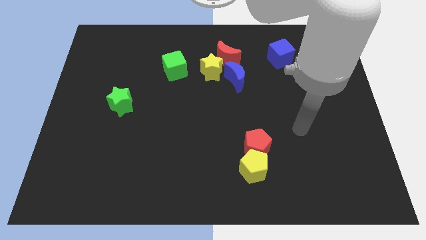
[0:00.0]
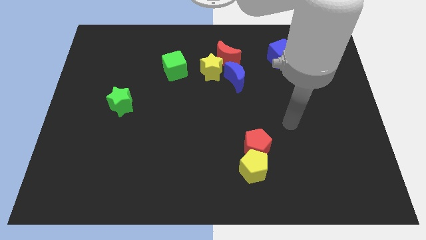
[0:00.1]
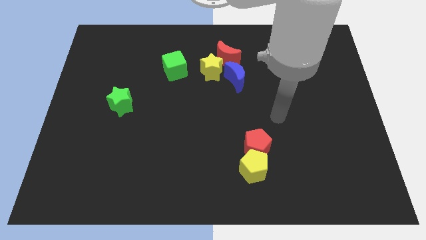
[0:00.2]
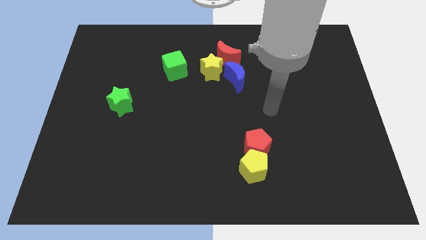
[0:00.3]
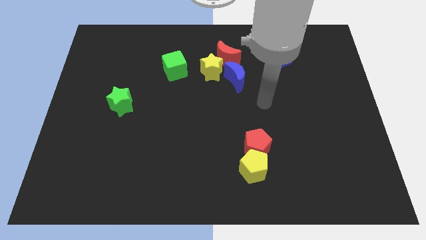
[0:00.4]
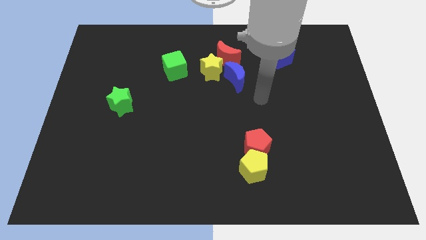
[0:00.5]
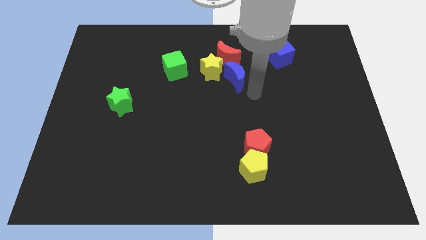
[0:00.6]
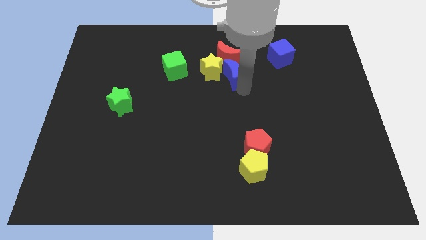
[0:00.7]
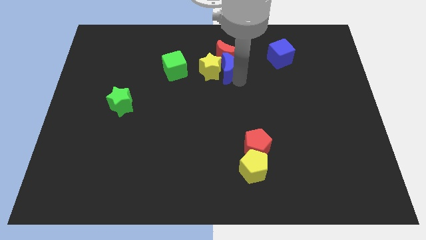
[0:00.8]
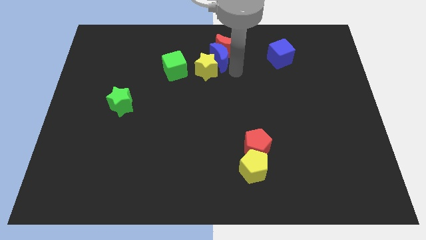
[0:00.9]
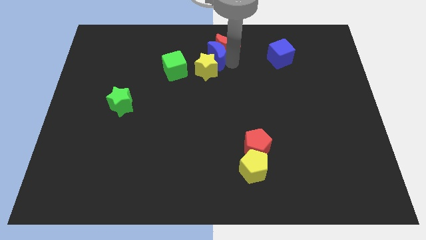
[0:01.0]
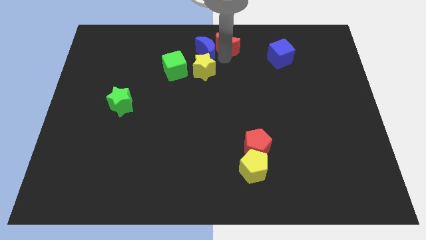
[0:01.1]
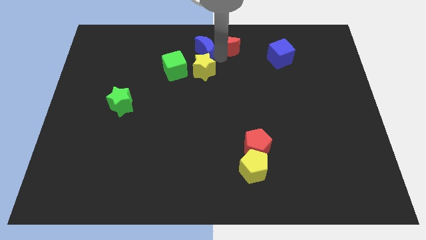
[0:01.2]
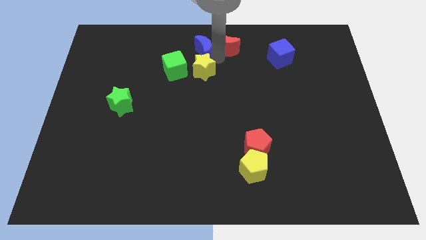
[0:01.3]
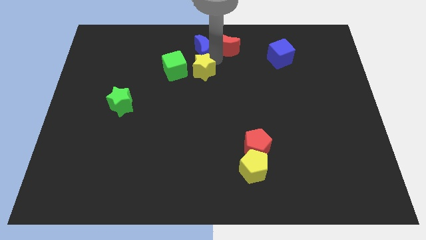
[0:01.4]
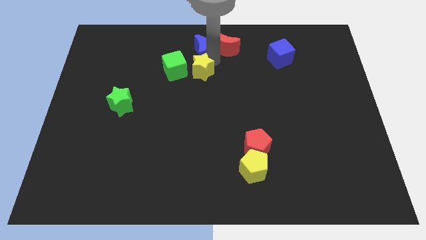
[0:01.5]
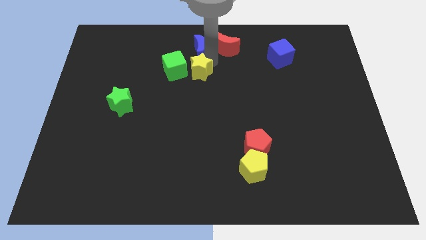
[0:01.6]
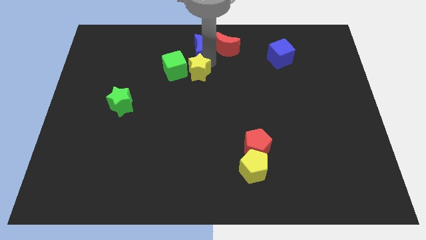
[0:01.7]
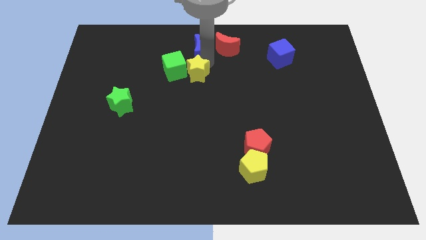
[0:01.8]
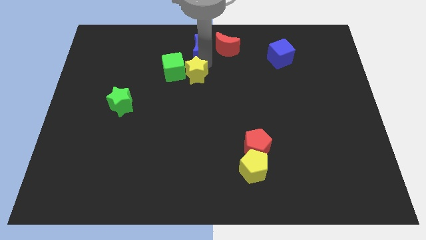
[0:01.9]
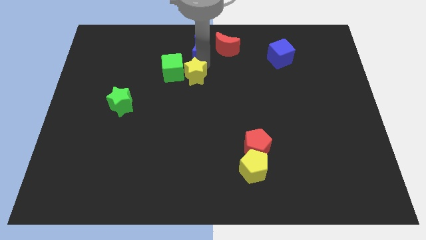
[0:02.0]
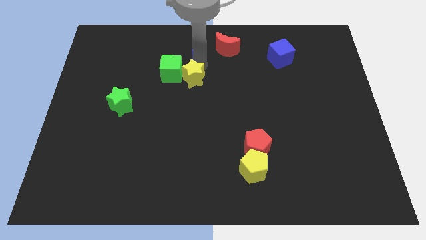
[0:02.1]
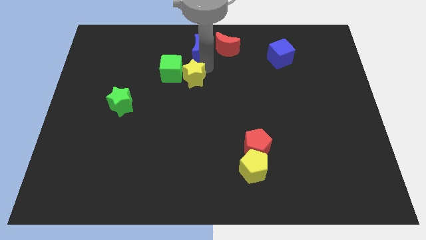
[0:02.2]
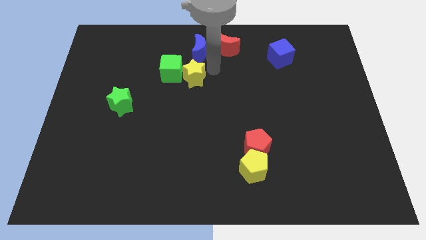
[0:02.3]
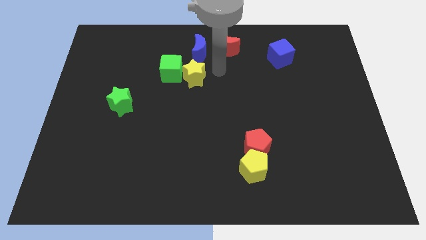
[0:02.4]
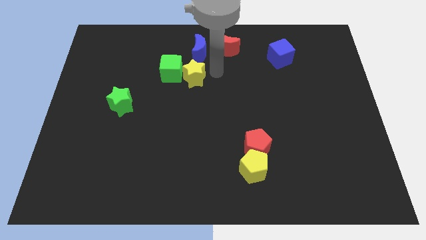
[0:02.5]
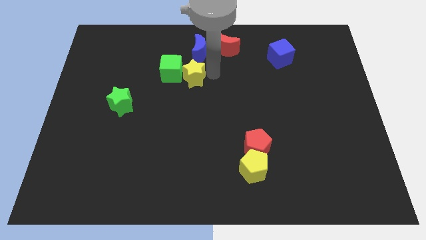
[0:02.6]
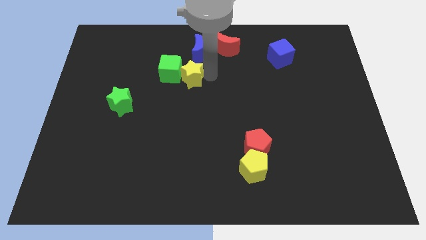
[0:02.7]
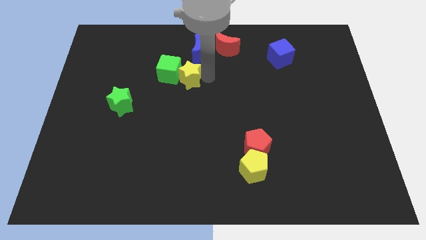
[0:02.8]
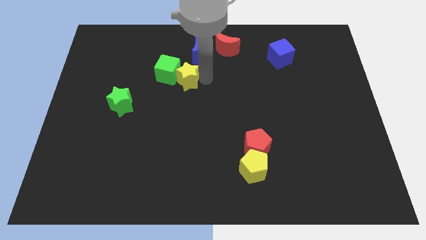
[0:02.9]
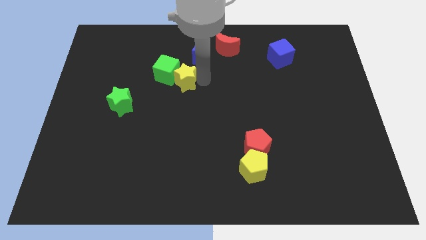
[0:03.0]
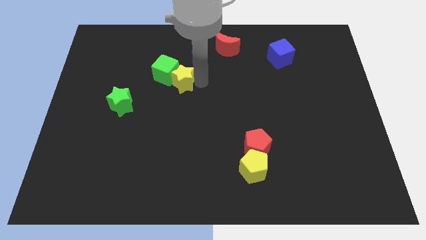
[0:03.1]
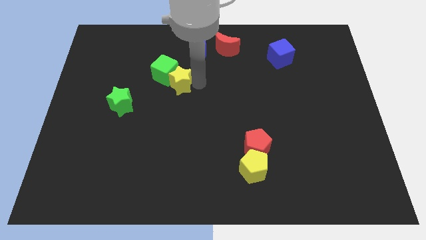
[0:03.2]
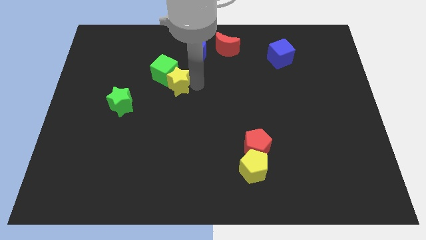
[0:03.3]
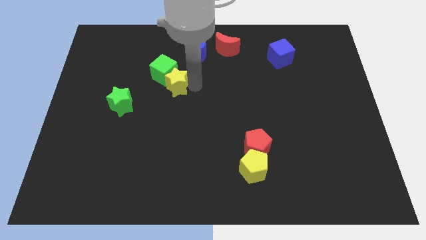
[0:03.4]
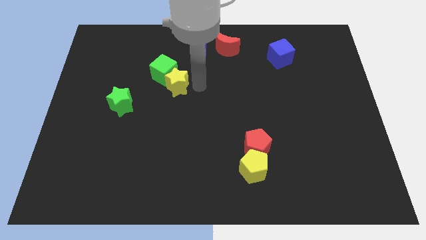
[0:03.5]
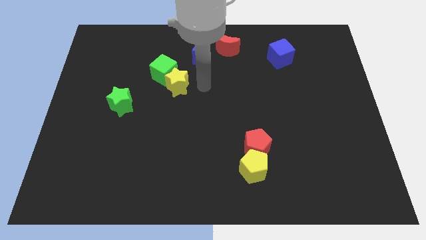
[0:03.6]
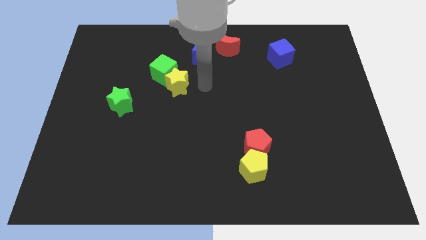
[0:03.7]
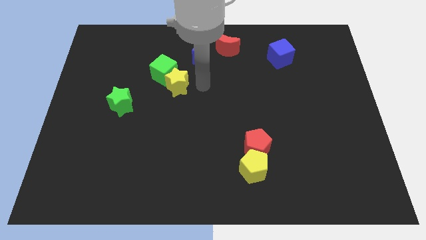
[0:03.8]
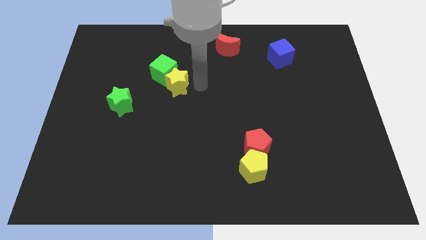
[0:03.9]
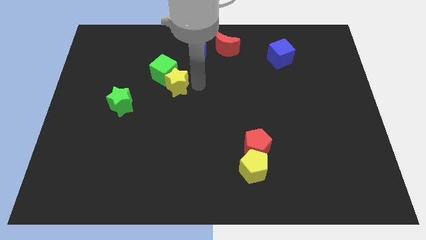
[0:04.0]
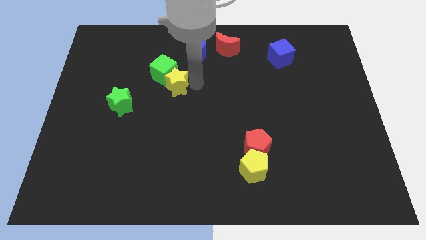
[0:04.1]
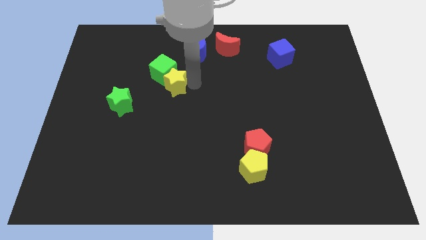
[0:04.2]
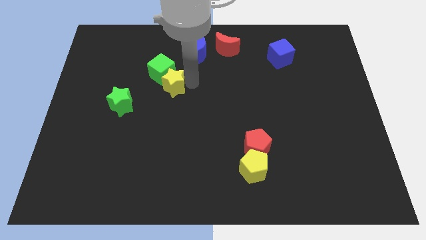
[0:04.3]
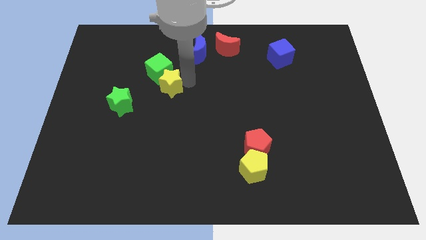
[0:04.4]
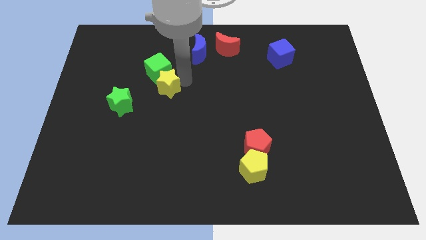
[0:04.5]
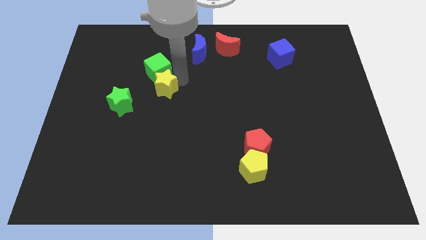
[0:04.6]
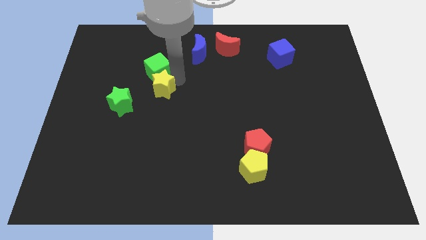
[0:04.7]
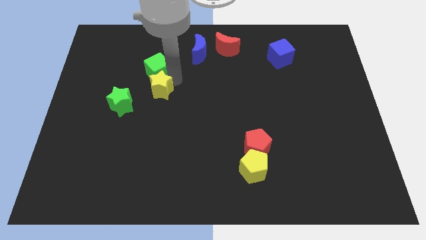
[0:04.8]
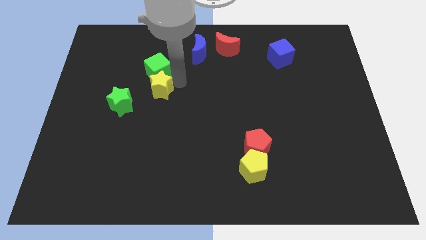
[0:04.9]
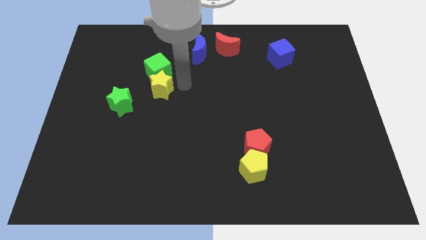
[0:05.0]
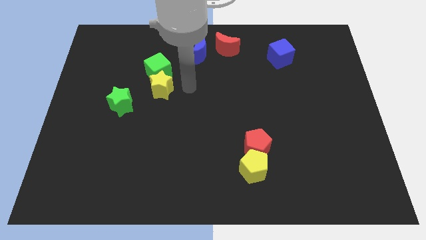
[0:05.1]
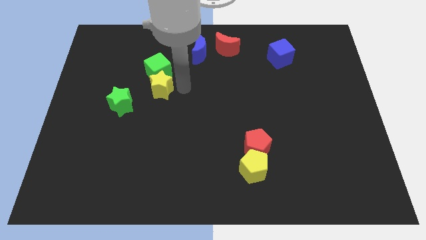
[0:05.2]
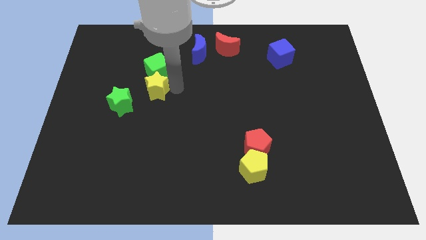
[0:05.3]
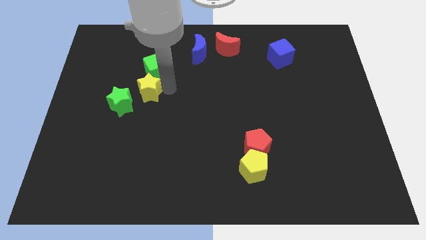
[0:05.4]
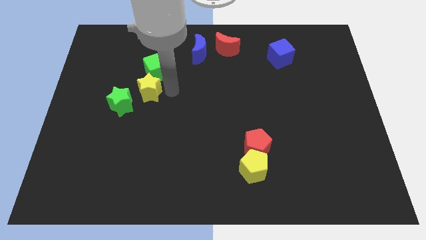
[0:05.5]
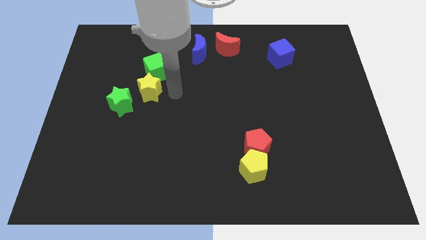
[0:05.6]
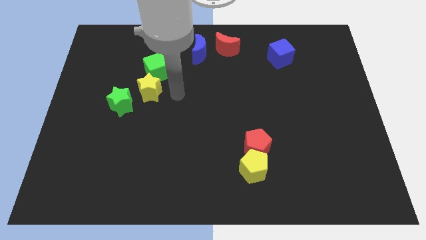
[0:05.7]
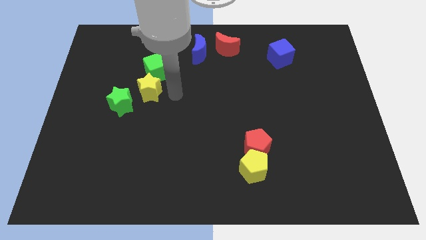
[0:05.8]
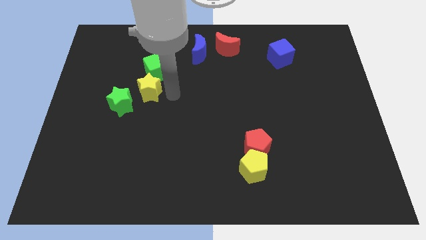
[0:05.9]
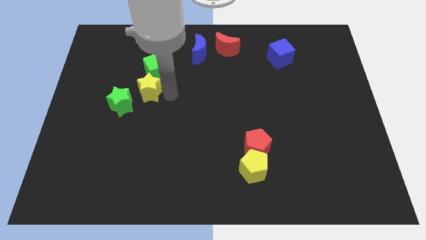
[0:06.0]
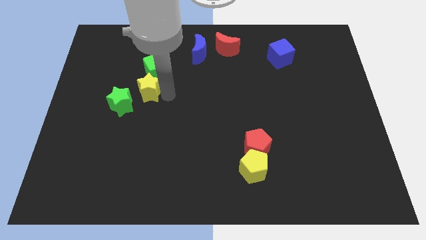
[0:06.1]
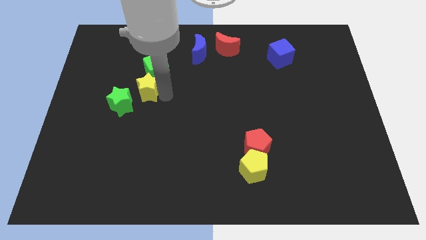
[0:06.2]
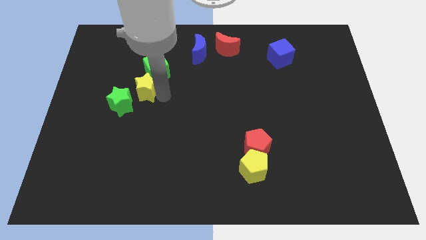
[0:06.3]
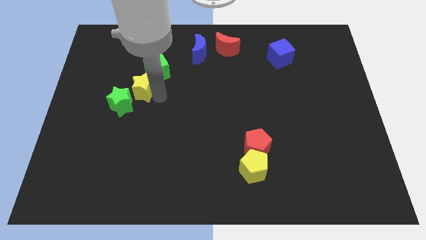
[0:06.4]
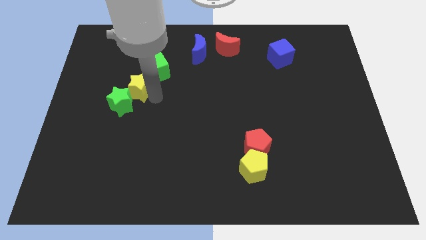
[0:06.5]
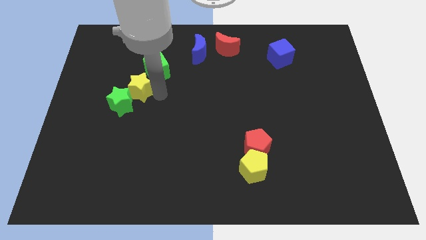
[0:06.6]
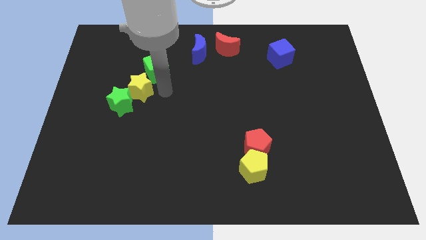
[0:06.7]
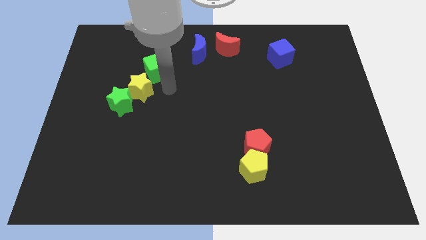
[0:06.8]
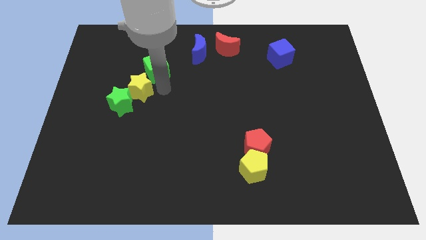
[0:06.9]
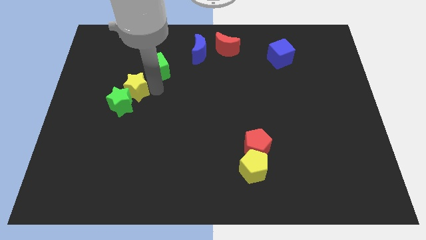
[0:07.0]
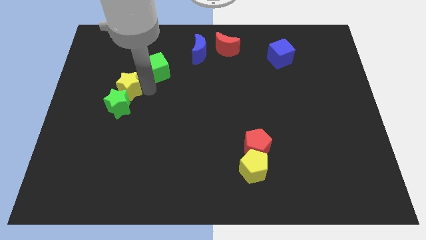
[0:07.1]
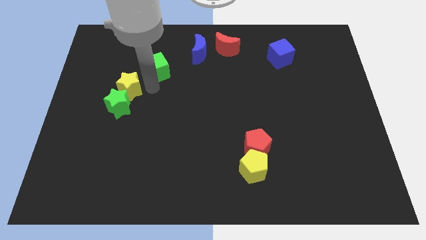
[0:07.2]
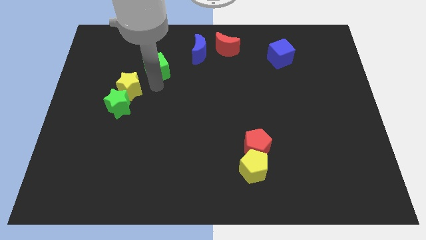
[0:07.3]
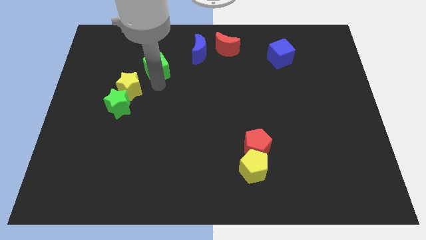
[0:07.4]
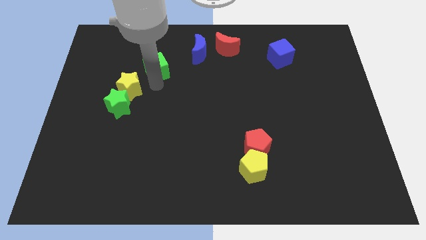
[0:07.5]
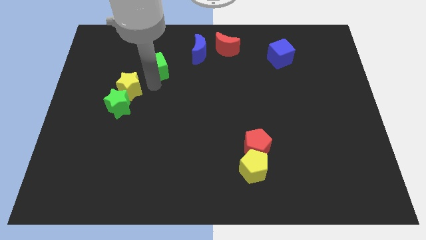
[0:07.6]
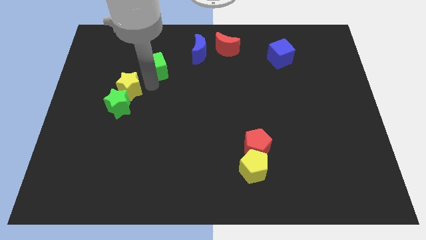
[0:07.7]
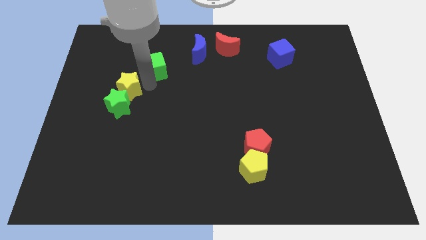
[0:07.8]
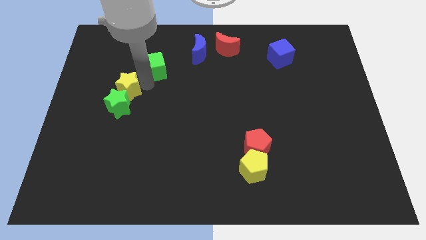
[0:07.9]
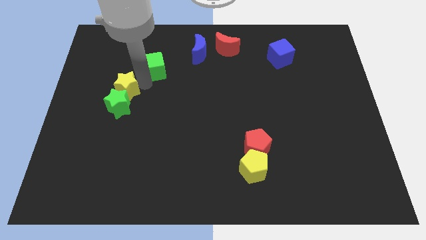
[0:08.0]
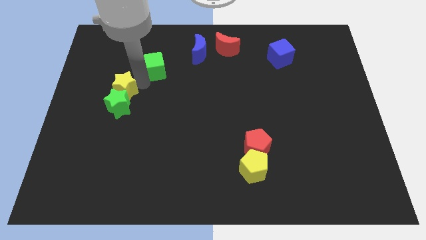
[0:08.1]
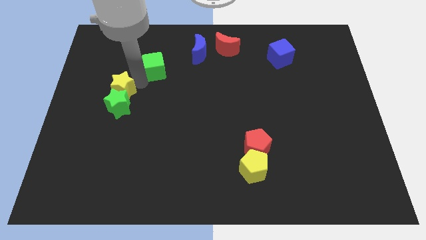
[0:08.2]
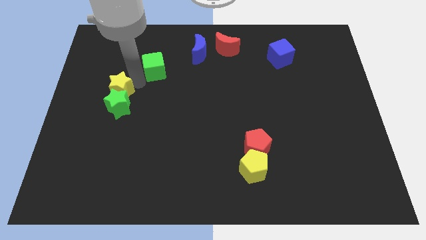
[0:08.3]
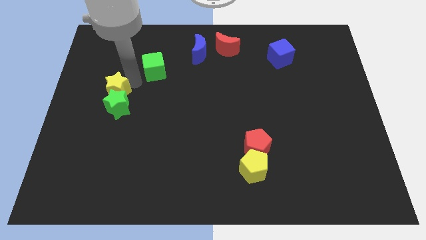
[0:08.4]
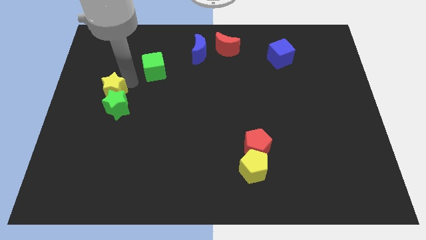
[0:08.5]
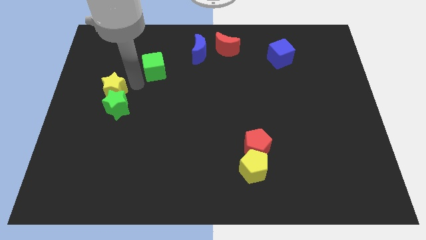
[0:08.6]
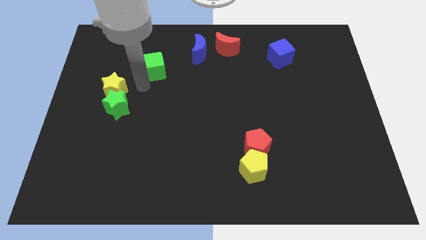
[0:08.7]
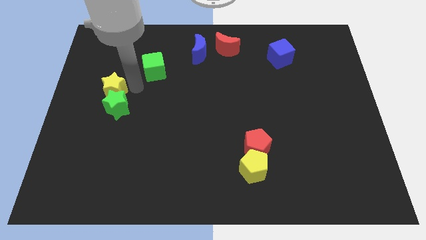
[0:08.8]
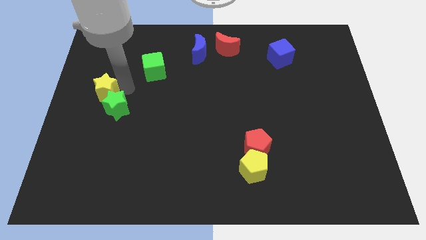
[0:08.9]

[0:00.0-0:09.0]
push the yellow star to the left side
